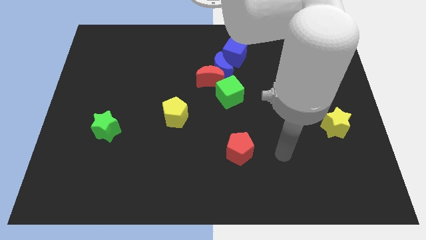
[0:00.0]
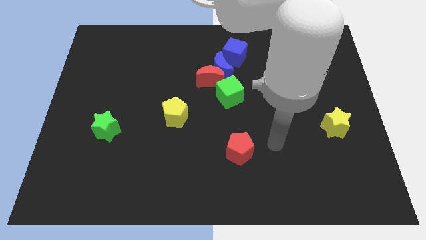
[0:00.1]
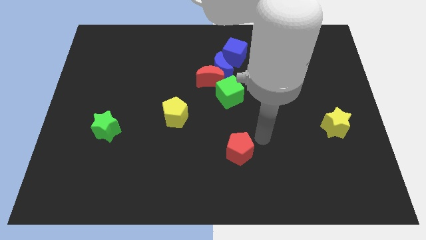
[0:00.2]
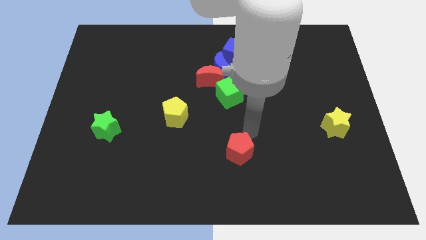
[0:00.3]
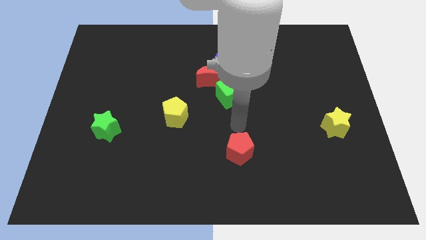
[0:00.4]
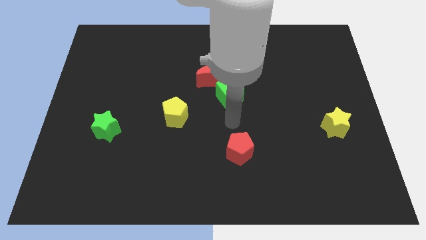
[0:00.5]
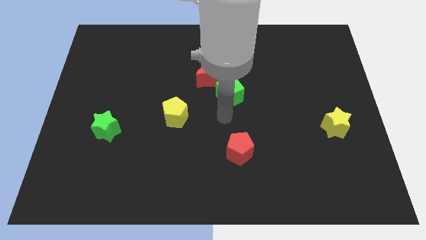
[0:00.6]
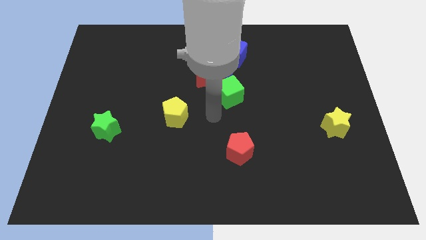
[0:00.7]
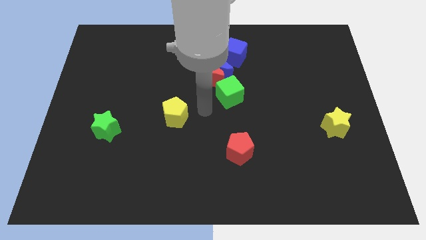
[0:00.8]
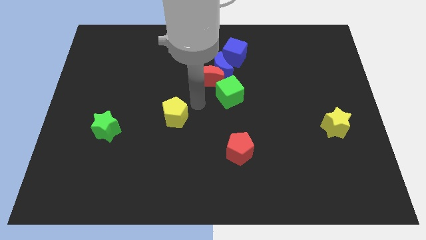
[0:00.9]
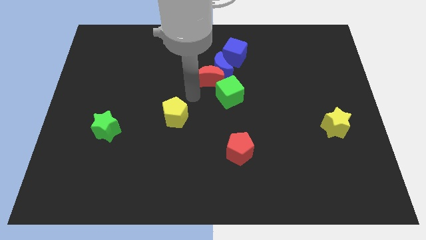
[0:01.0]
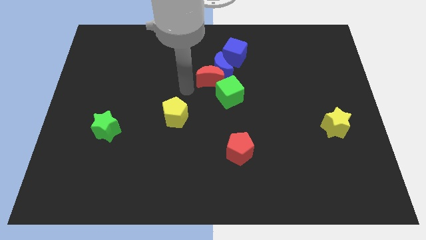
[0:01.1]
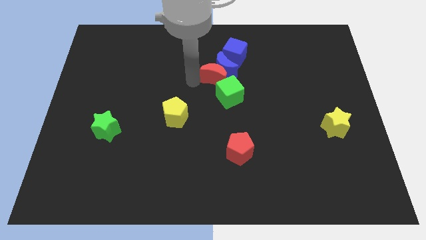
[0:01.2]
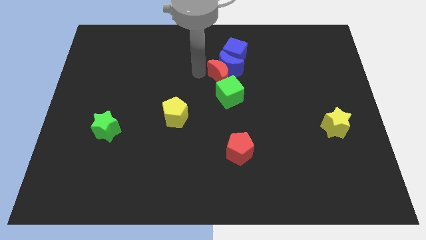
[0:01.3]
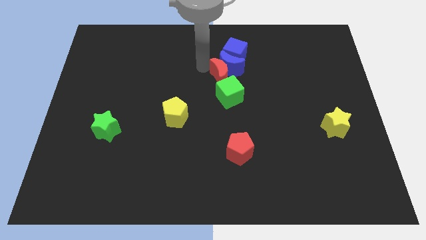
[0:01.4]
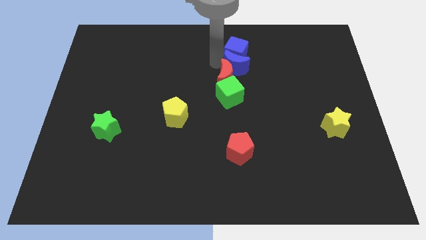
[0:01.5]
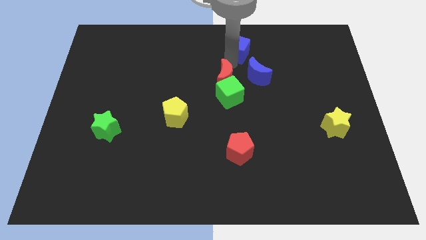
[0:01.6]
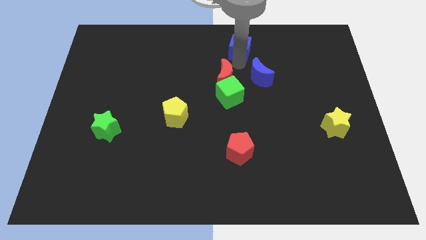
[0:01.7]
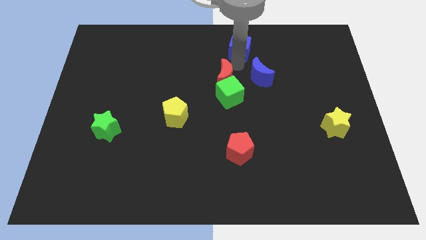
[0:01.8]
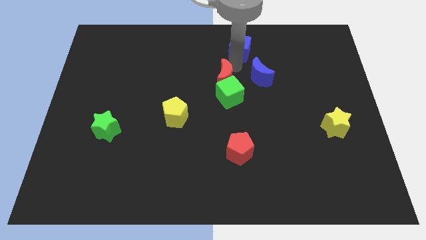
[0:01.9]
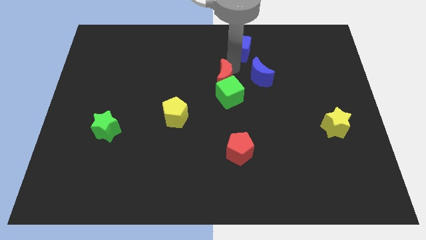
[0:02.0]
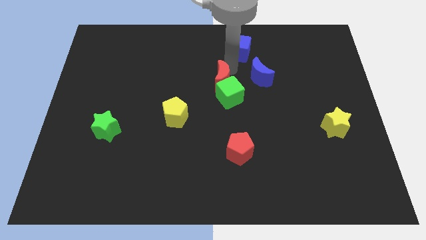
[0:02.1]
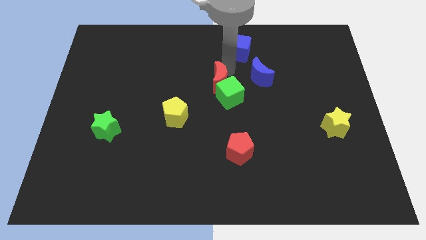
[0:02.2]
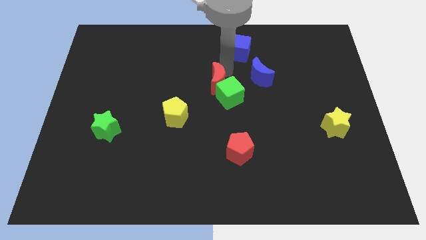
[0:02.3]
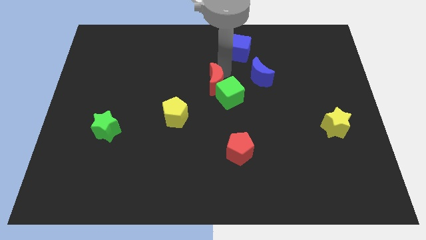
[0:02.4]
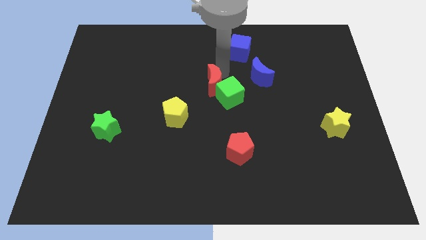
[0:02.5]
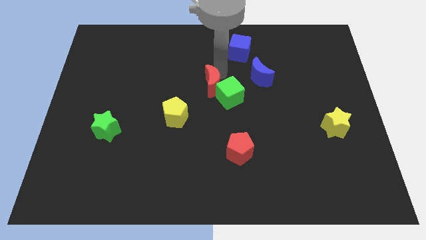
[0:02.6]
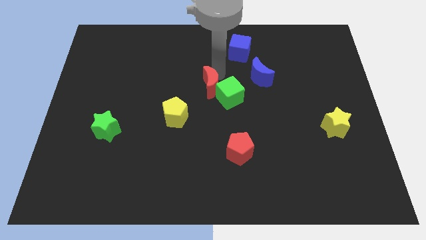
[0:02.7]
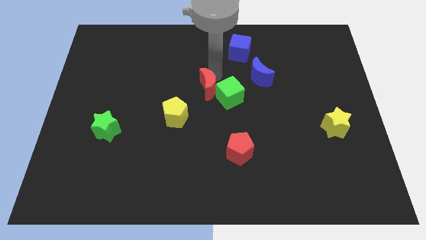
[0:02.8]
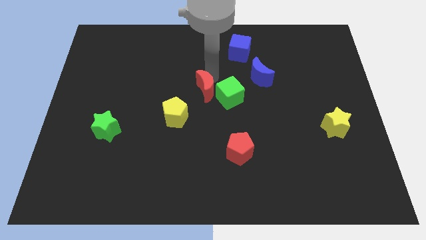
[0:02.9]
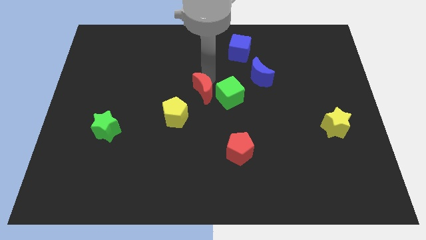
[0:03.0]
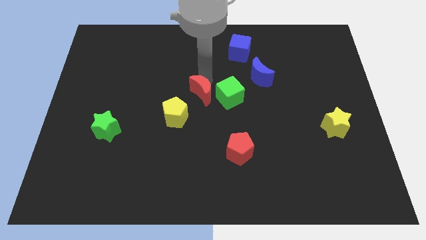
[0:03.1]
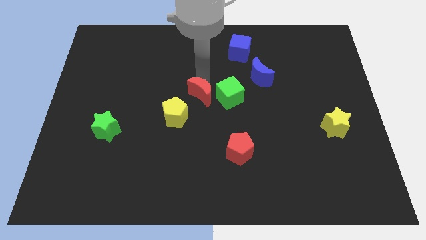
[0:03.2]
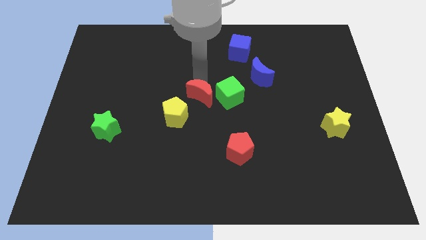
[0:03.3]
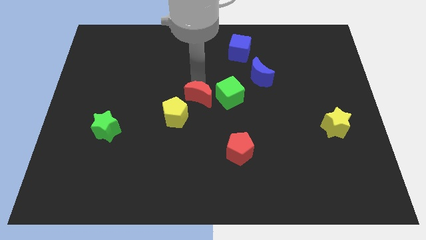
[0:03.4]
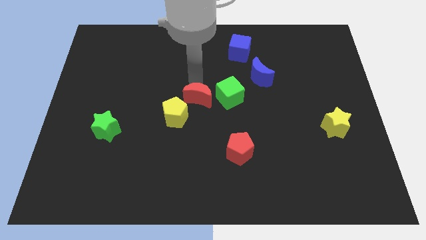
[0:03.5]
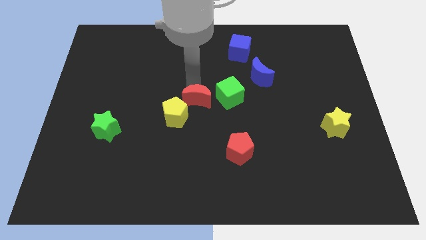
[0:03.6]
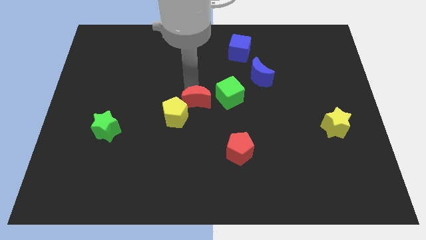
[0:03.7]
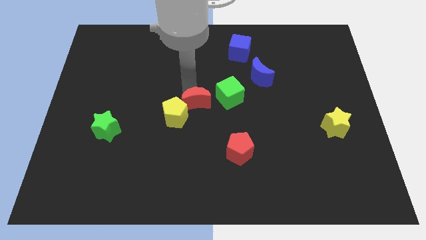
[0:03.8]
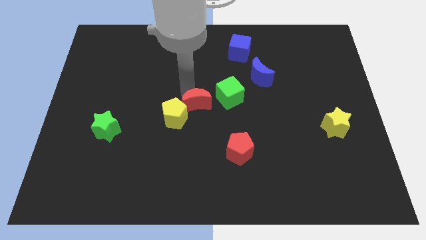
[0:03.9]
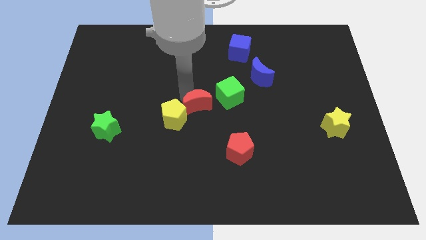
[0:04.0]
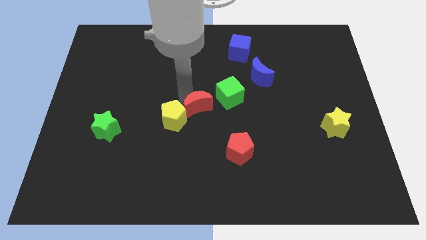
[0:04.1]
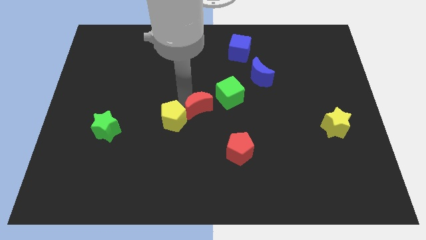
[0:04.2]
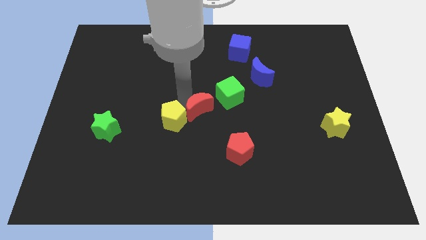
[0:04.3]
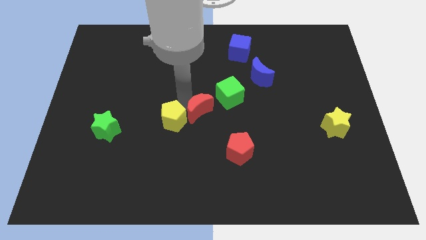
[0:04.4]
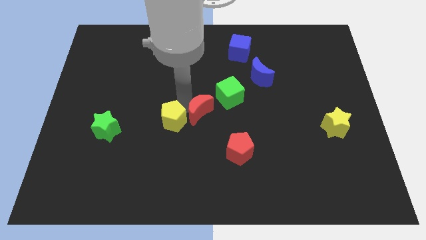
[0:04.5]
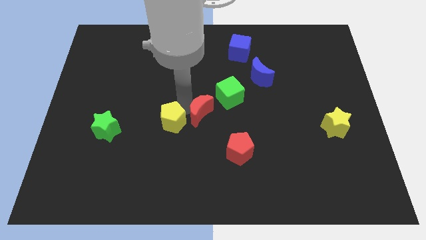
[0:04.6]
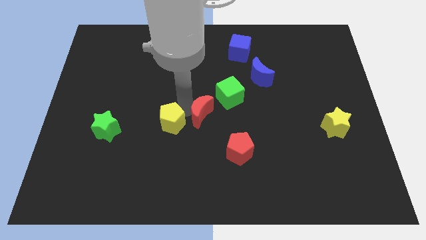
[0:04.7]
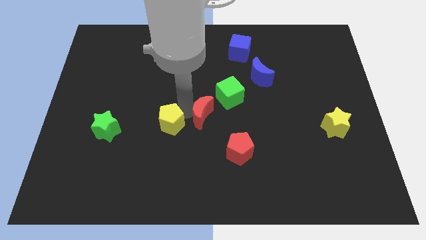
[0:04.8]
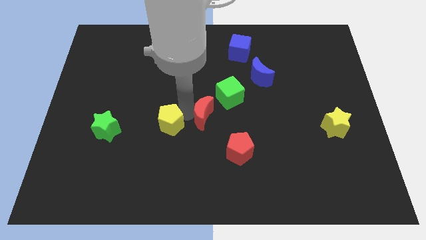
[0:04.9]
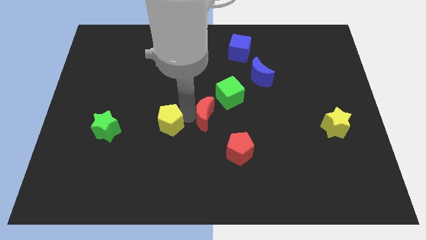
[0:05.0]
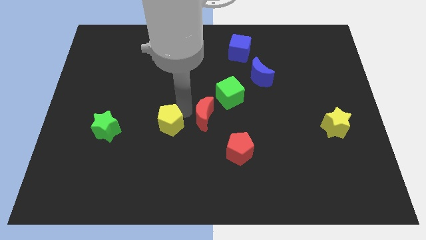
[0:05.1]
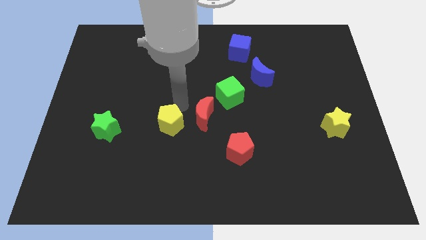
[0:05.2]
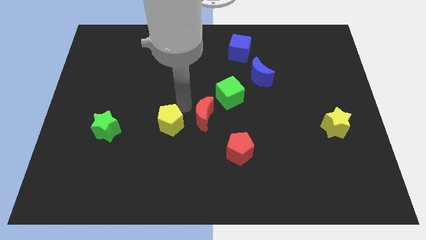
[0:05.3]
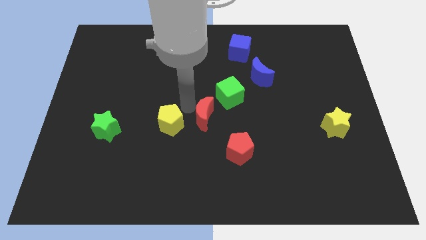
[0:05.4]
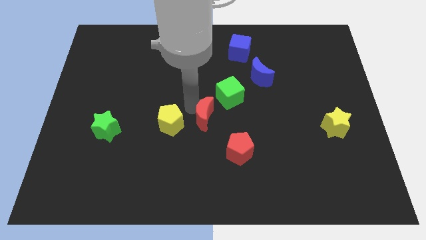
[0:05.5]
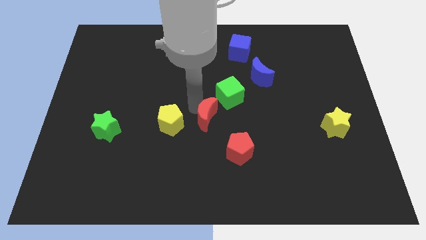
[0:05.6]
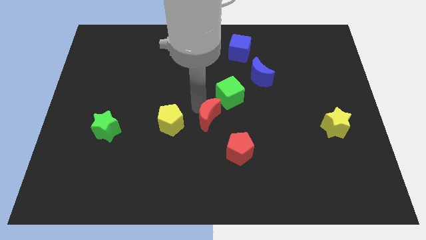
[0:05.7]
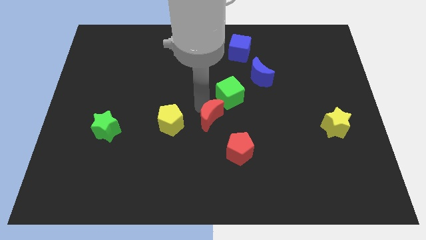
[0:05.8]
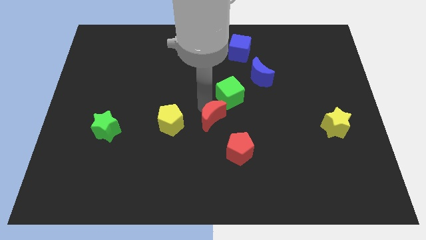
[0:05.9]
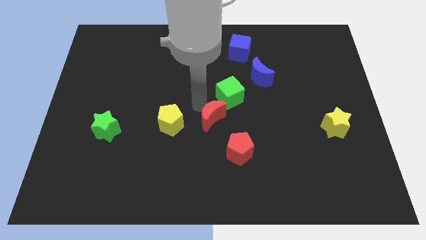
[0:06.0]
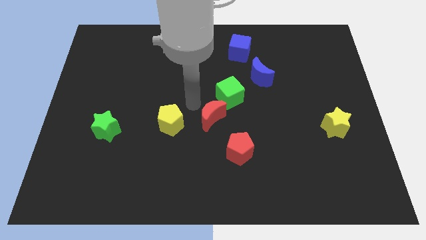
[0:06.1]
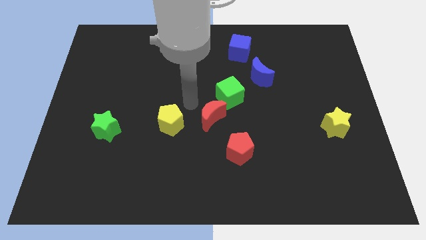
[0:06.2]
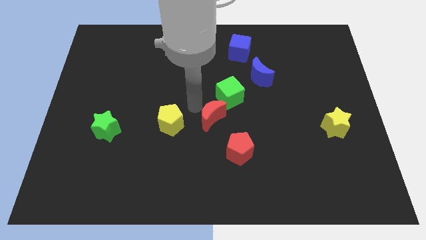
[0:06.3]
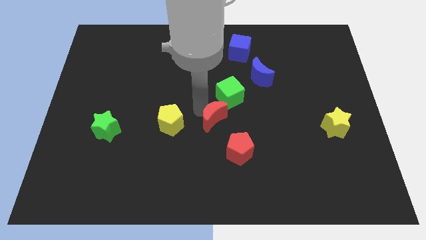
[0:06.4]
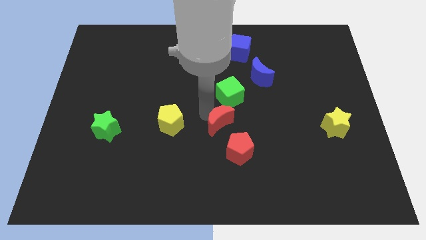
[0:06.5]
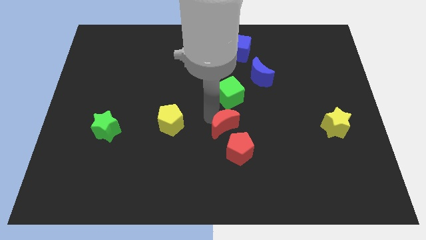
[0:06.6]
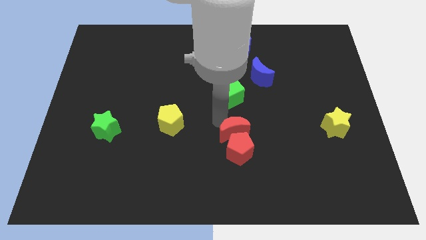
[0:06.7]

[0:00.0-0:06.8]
move the red moon next to the red pentagon

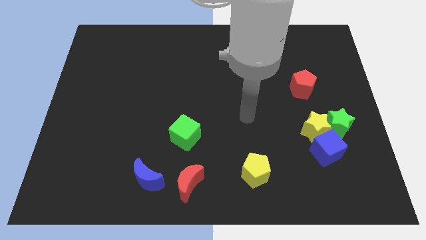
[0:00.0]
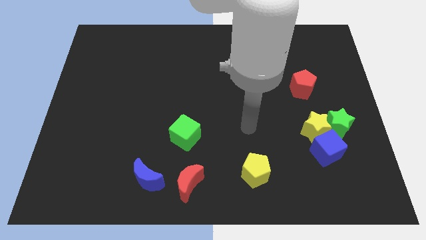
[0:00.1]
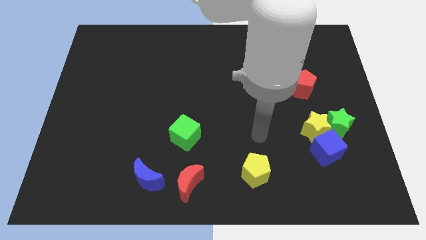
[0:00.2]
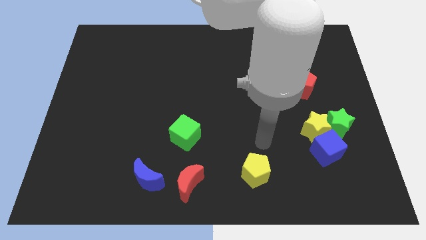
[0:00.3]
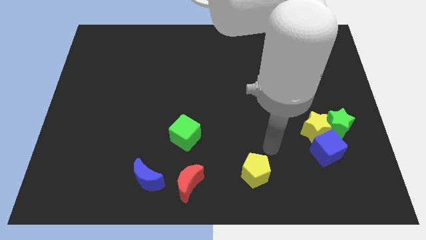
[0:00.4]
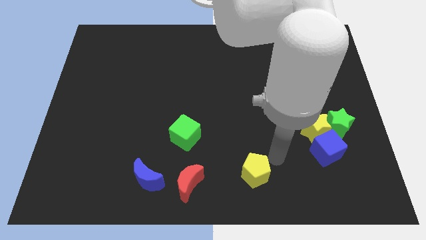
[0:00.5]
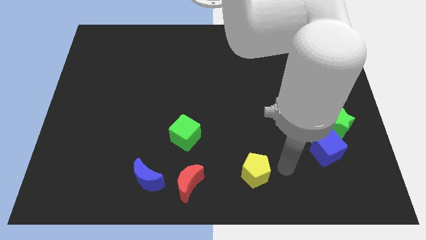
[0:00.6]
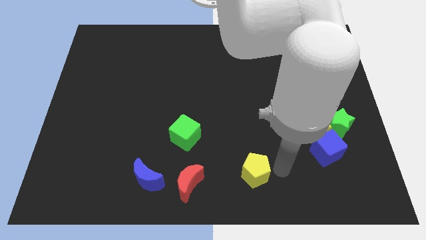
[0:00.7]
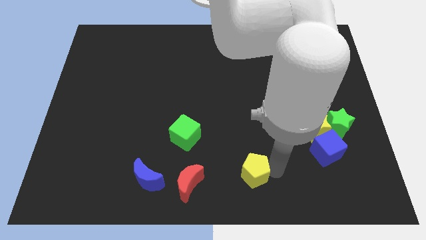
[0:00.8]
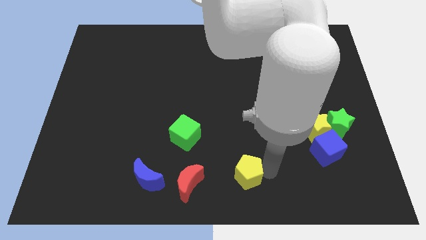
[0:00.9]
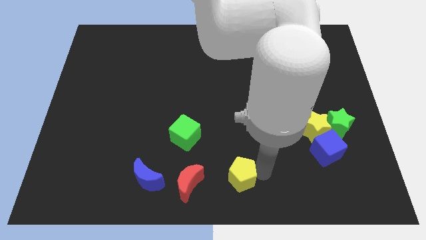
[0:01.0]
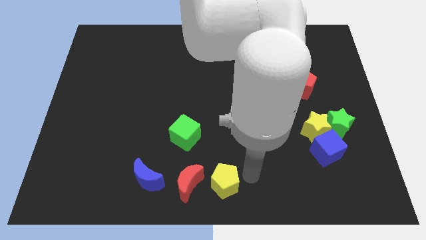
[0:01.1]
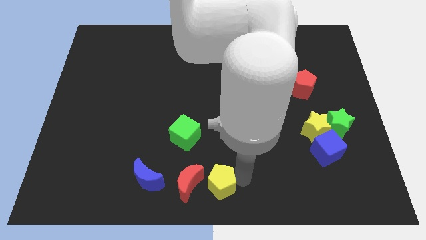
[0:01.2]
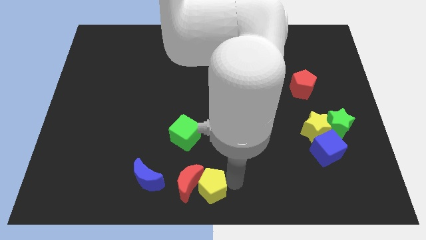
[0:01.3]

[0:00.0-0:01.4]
move the yellow pentagon close to the red moon

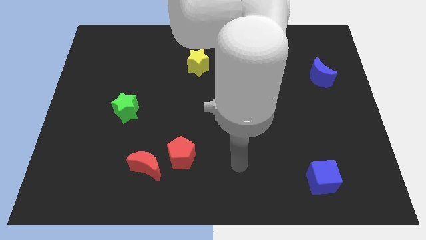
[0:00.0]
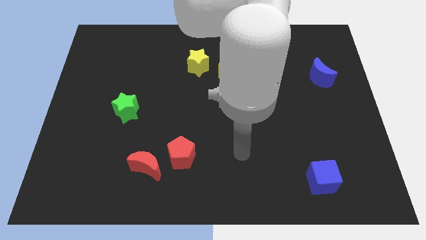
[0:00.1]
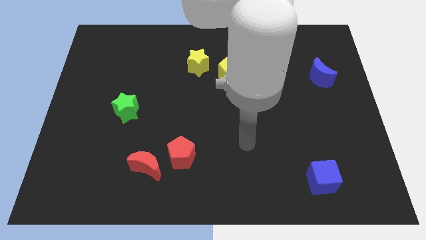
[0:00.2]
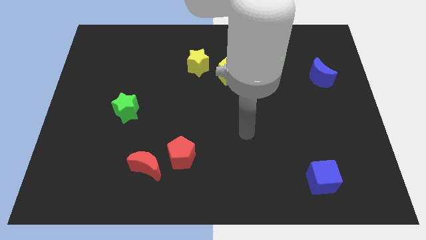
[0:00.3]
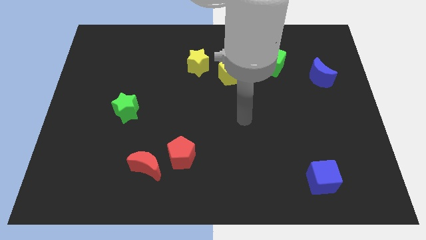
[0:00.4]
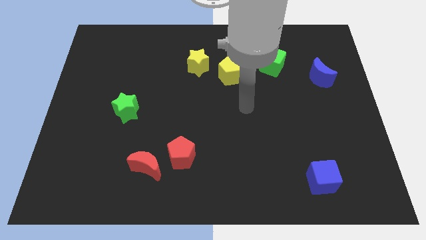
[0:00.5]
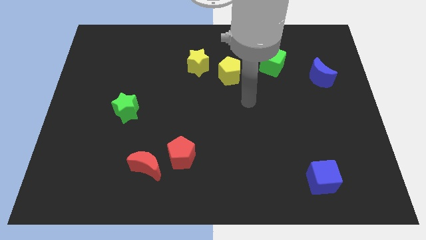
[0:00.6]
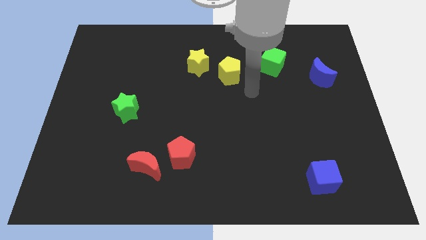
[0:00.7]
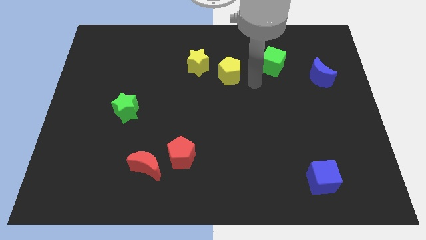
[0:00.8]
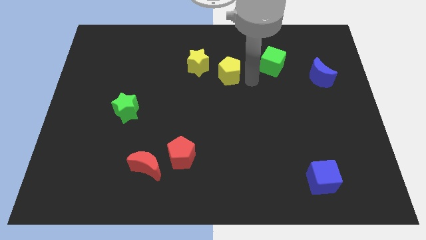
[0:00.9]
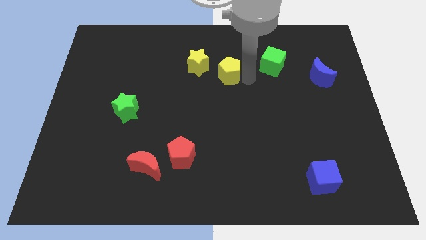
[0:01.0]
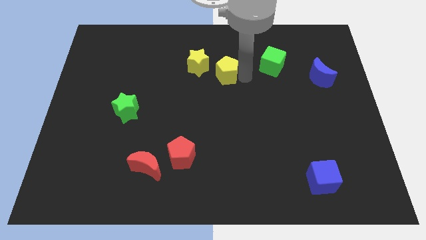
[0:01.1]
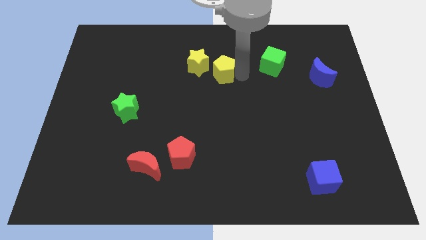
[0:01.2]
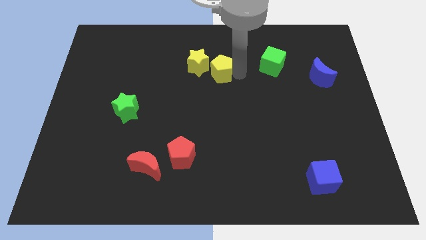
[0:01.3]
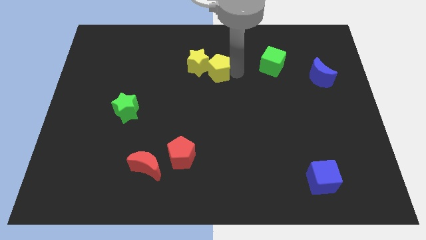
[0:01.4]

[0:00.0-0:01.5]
put the yellow pentagon close to the yellow star
